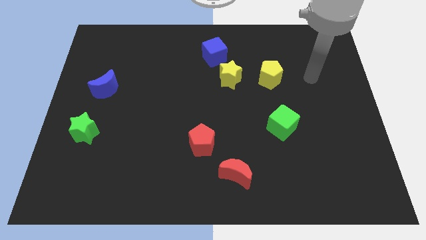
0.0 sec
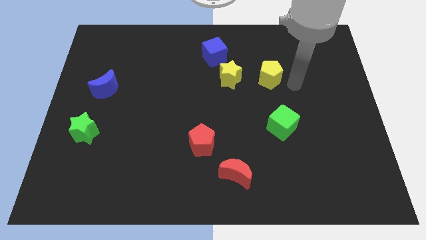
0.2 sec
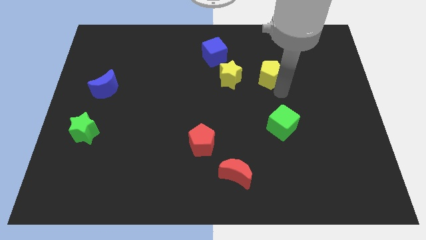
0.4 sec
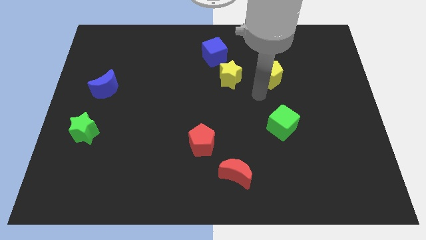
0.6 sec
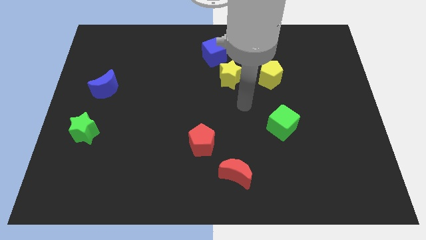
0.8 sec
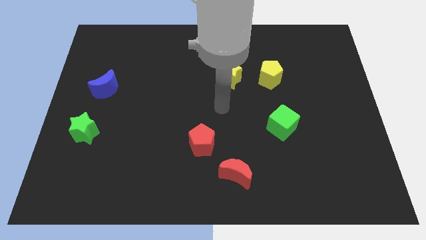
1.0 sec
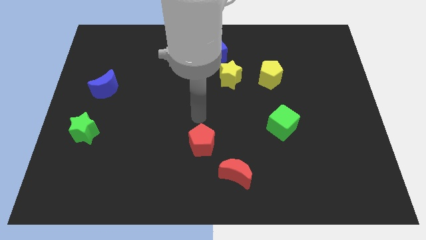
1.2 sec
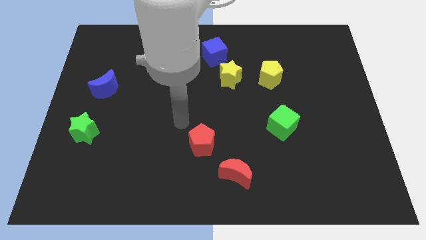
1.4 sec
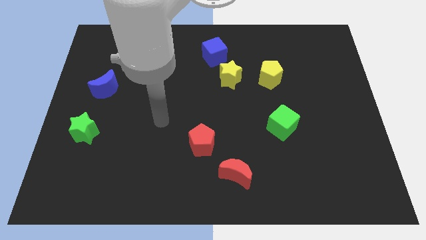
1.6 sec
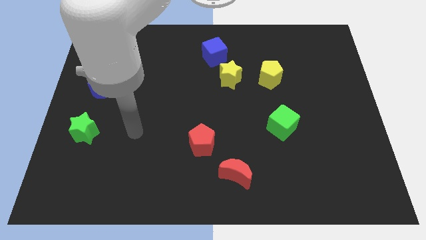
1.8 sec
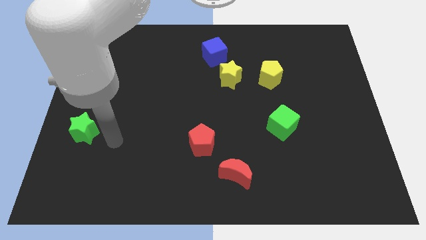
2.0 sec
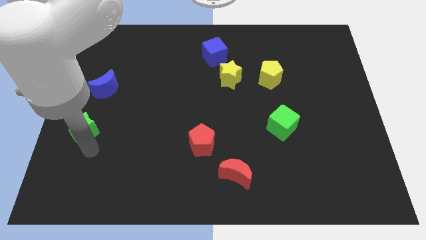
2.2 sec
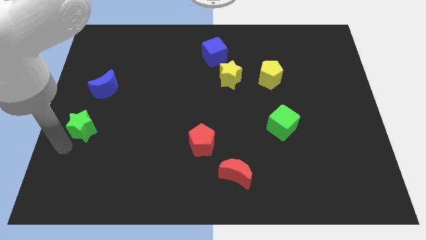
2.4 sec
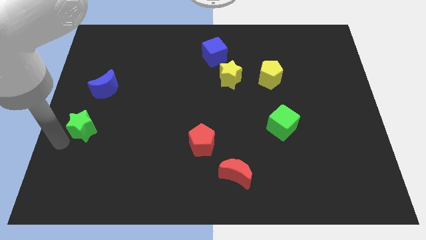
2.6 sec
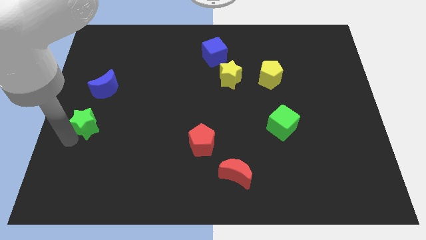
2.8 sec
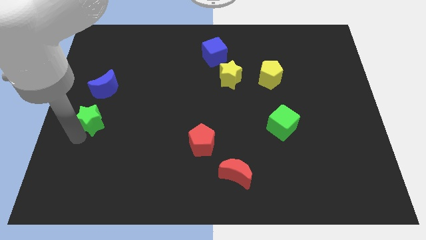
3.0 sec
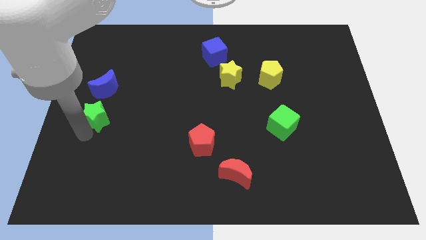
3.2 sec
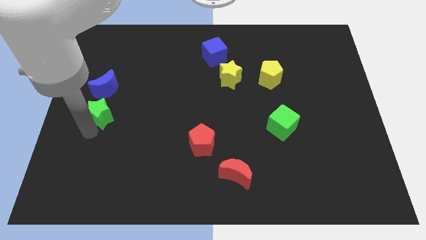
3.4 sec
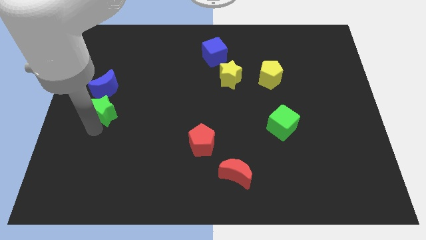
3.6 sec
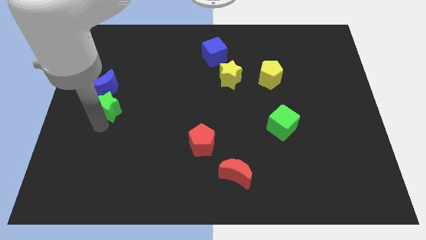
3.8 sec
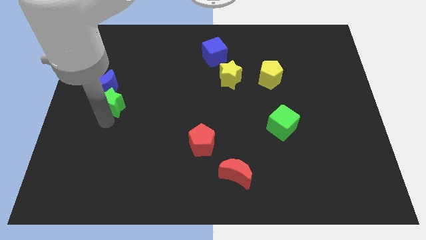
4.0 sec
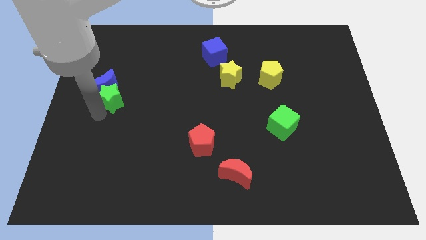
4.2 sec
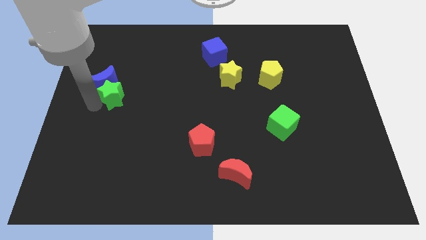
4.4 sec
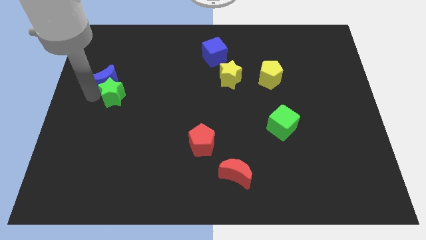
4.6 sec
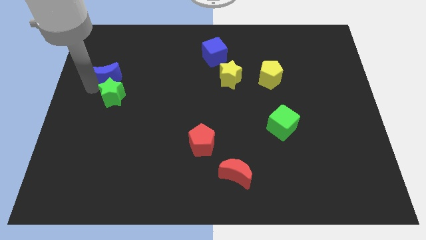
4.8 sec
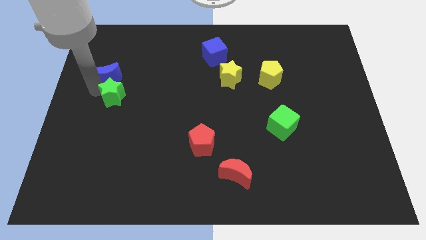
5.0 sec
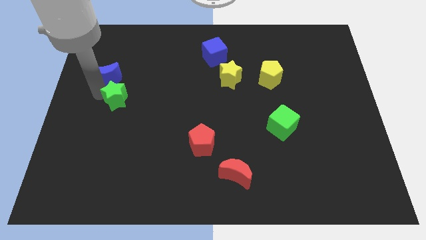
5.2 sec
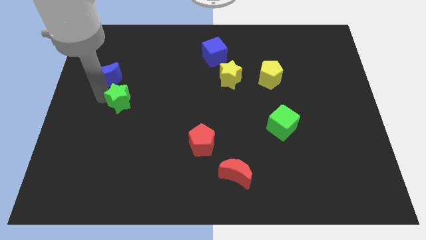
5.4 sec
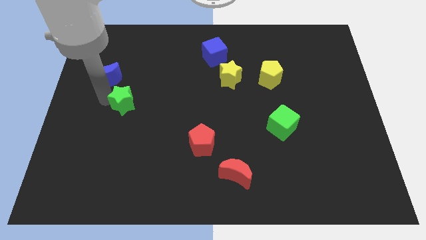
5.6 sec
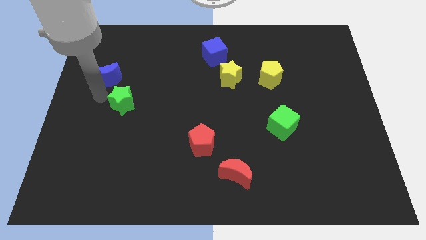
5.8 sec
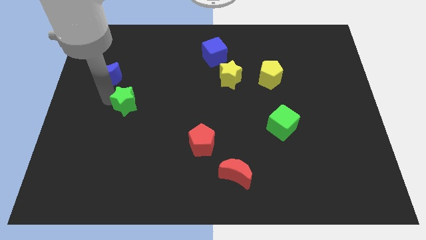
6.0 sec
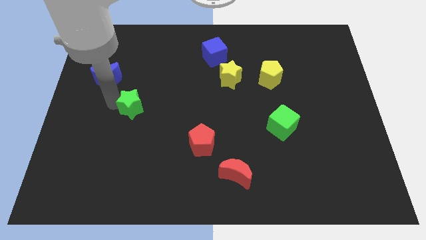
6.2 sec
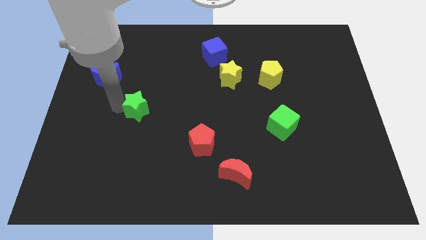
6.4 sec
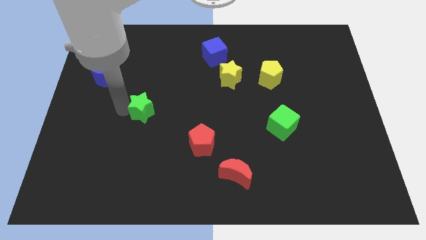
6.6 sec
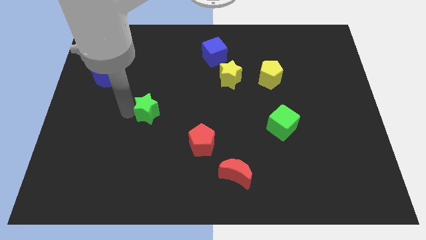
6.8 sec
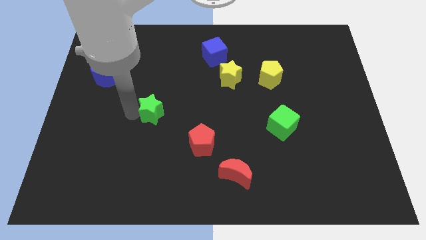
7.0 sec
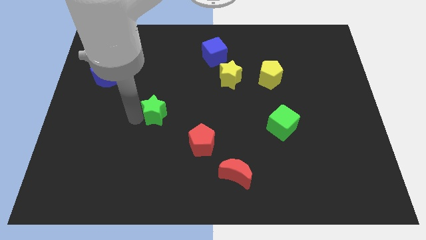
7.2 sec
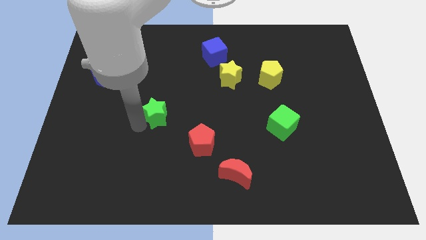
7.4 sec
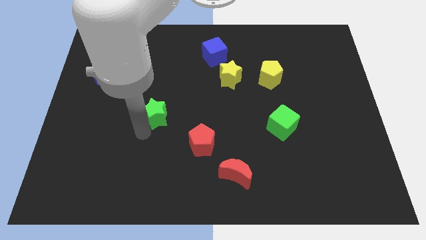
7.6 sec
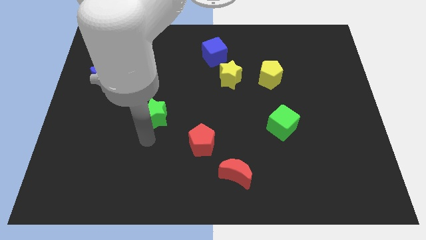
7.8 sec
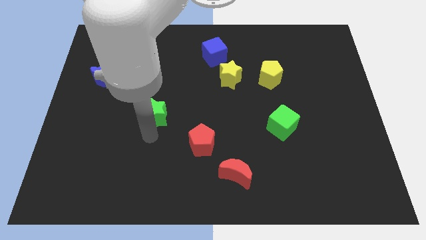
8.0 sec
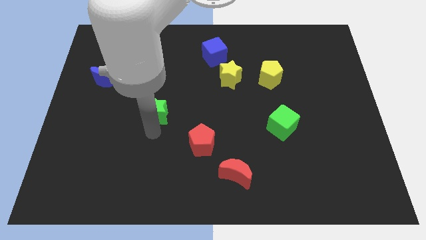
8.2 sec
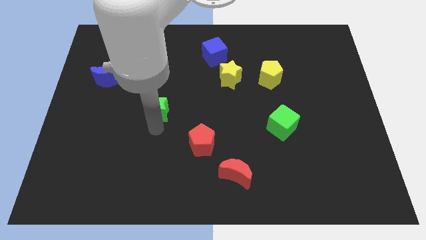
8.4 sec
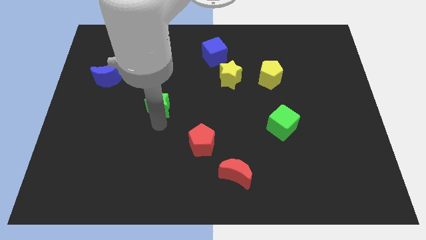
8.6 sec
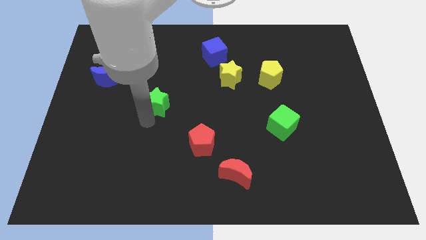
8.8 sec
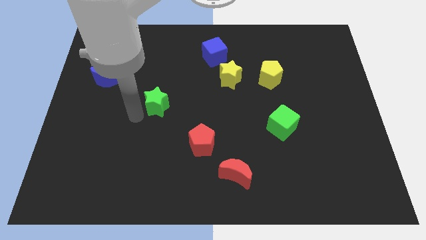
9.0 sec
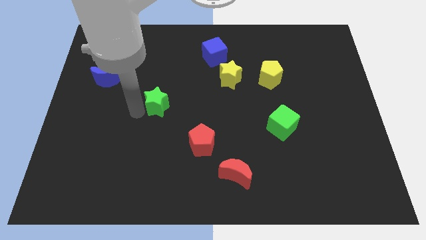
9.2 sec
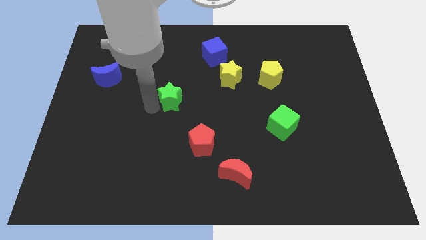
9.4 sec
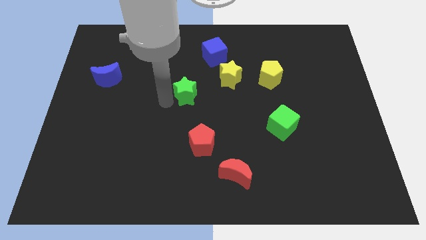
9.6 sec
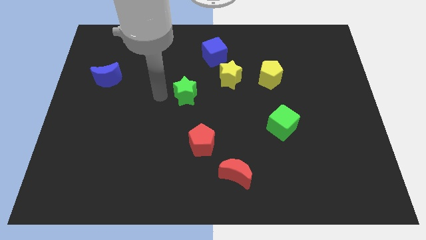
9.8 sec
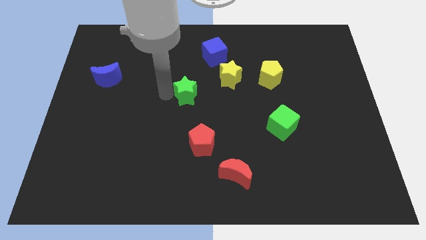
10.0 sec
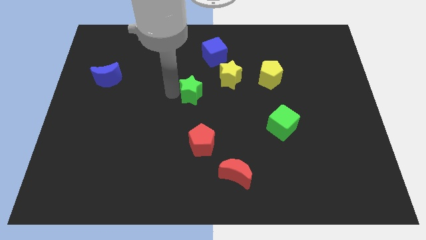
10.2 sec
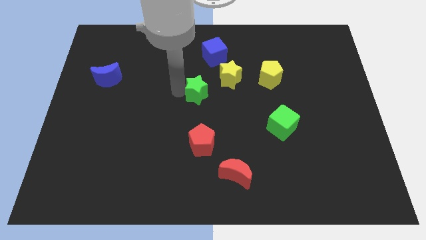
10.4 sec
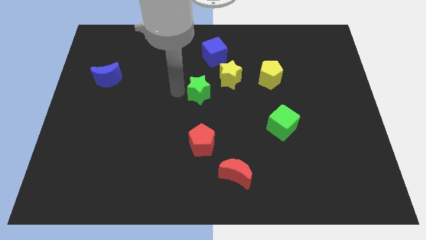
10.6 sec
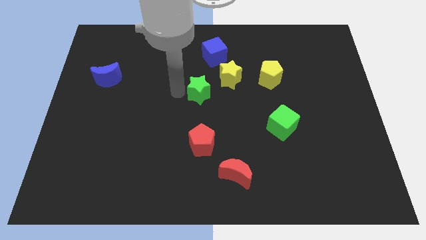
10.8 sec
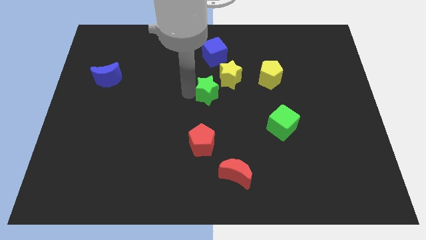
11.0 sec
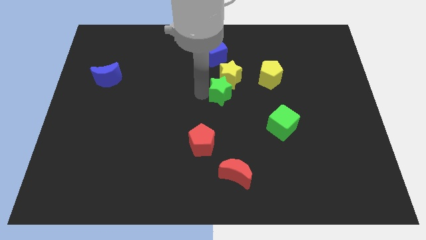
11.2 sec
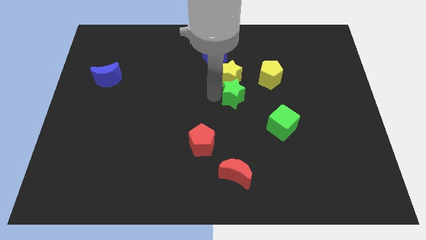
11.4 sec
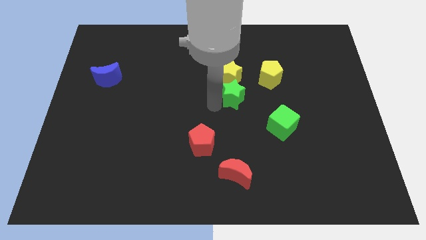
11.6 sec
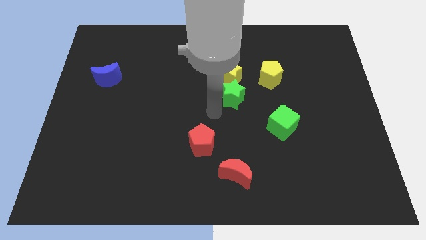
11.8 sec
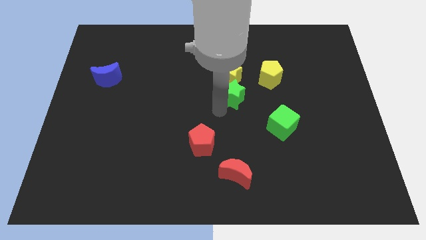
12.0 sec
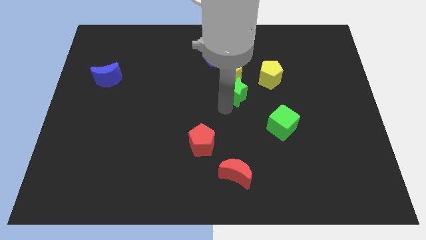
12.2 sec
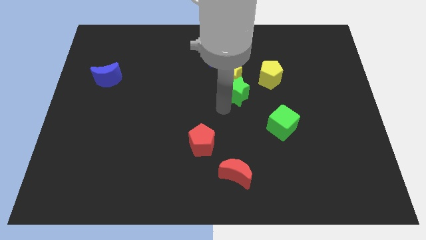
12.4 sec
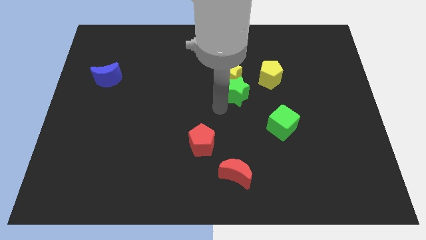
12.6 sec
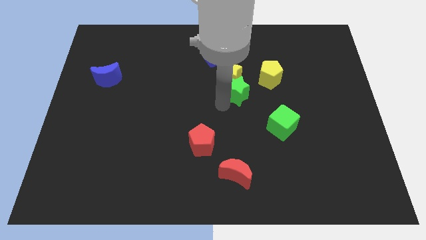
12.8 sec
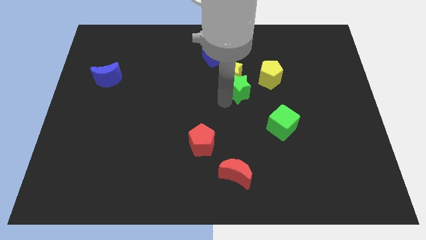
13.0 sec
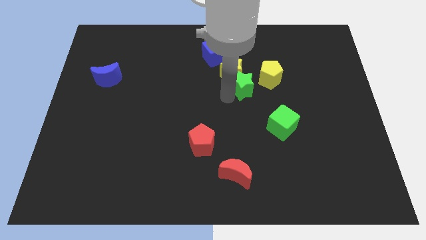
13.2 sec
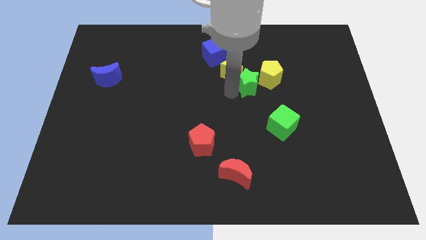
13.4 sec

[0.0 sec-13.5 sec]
slide the green star towards the yellow pentagon

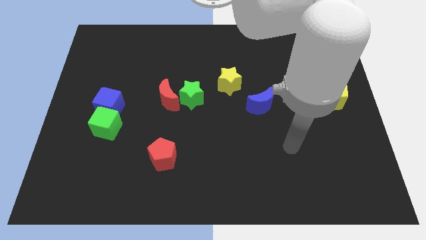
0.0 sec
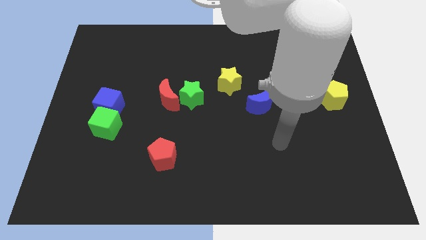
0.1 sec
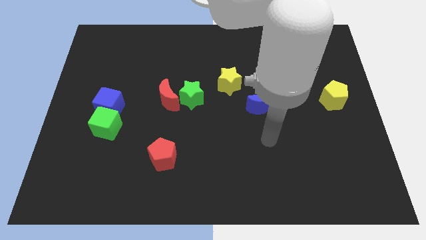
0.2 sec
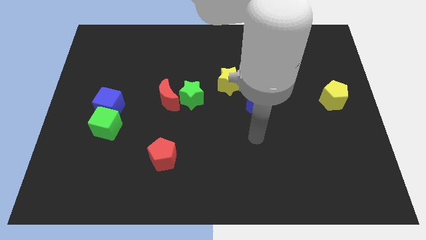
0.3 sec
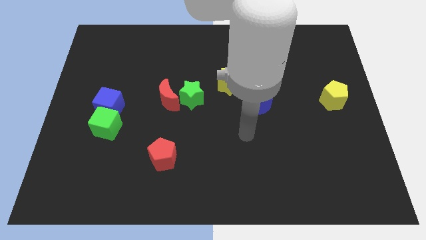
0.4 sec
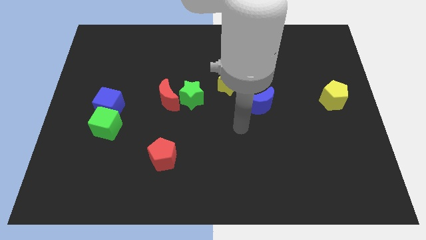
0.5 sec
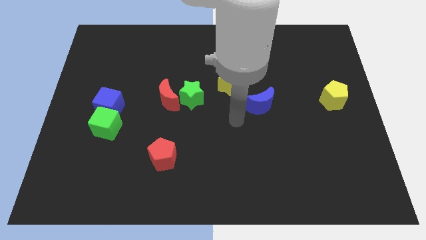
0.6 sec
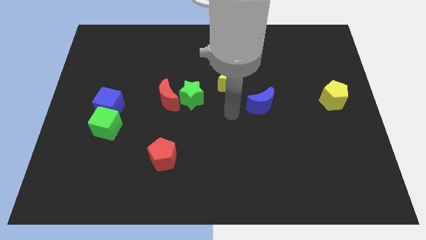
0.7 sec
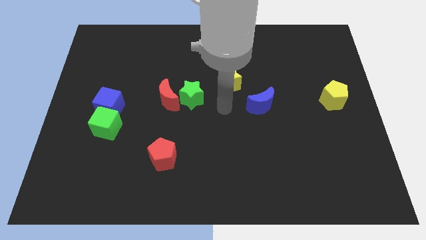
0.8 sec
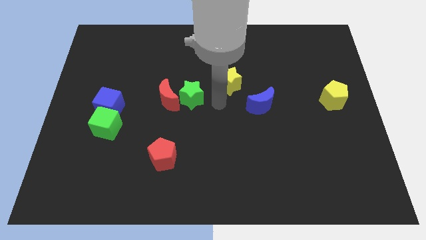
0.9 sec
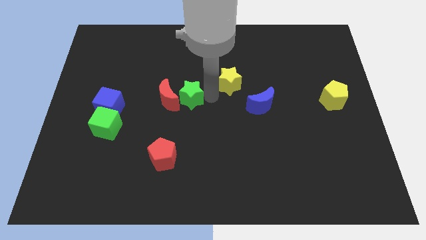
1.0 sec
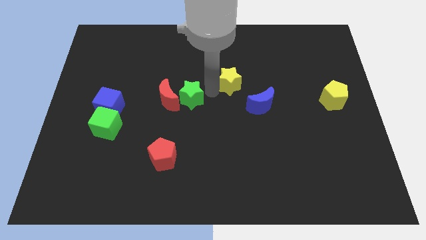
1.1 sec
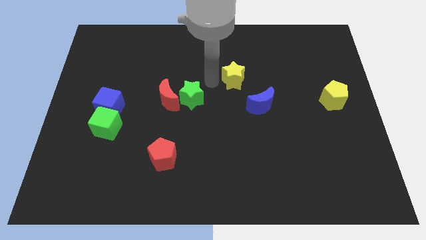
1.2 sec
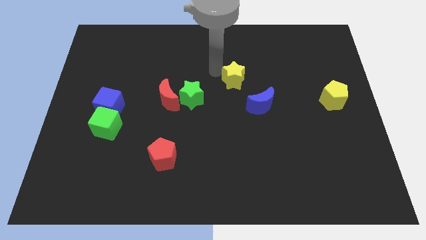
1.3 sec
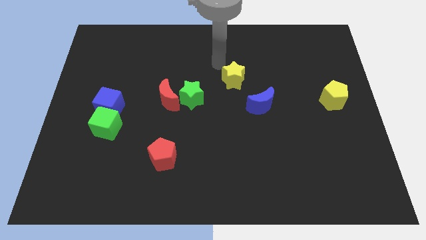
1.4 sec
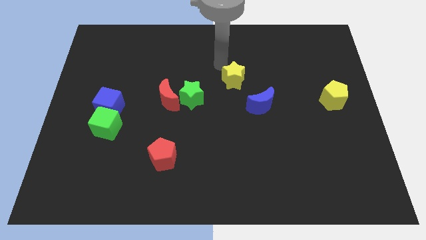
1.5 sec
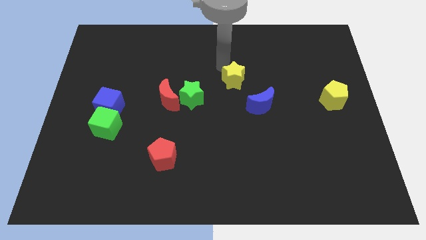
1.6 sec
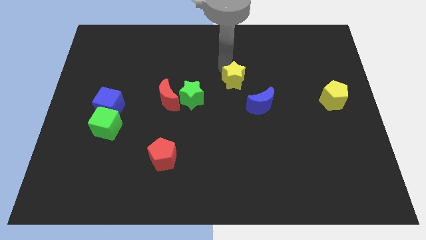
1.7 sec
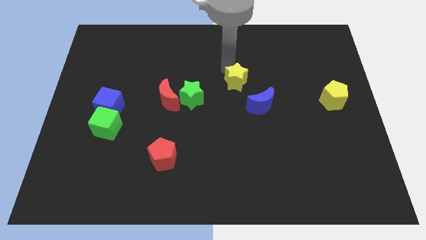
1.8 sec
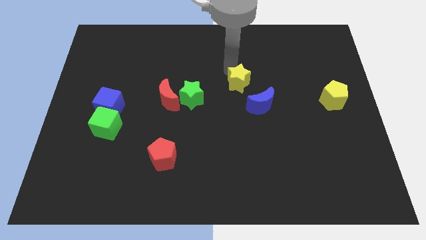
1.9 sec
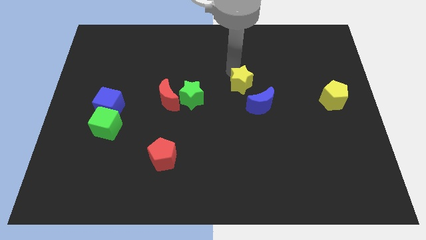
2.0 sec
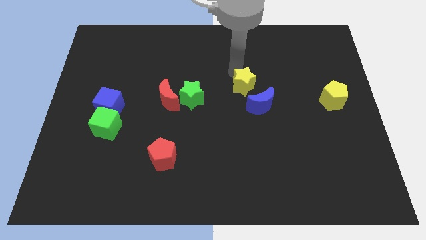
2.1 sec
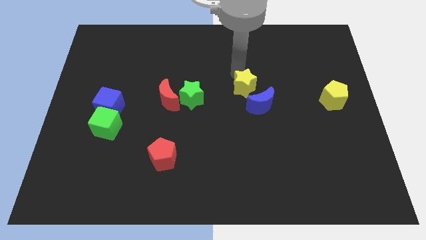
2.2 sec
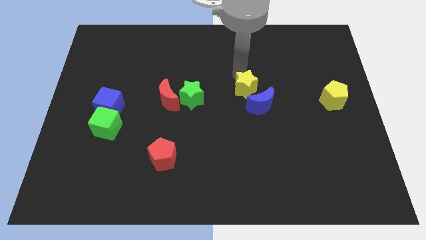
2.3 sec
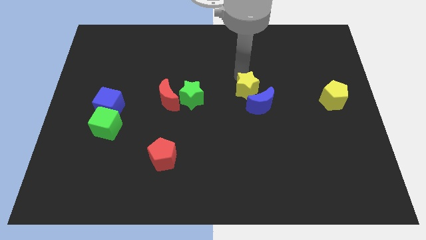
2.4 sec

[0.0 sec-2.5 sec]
push the yellow star towards the blue moon
